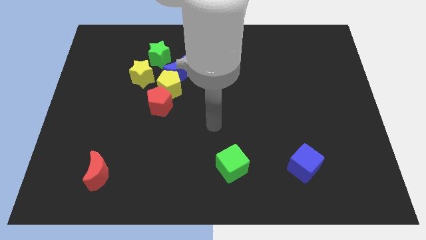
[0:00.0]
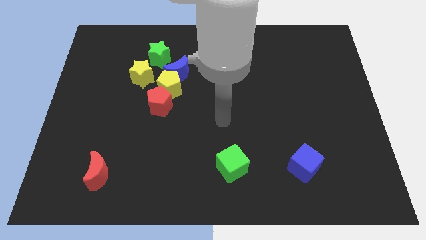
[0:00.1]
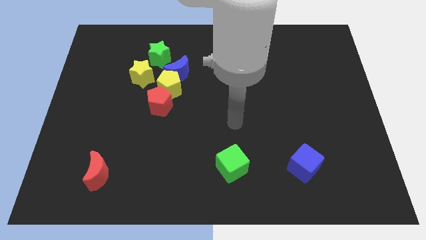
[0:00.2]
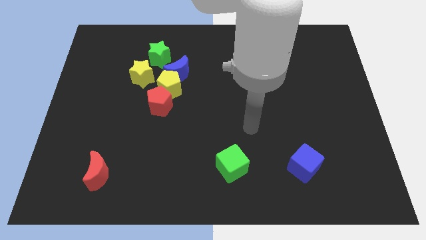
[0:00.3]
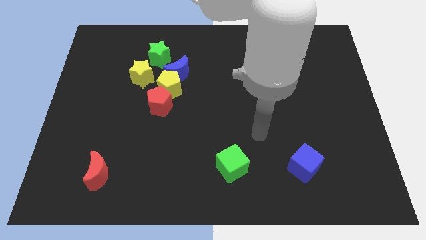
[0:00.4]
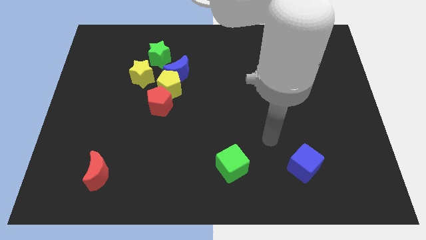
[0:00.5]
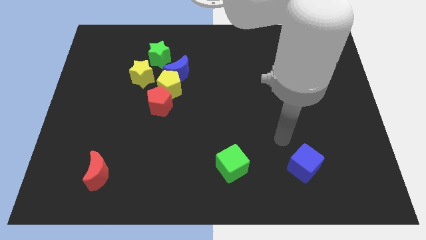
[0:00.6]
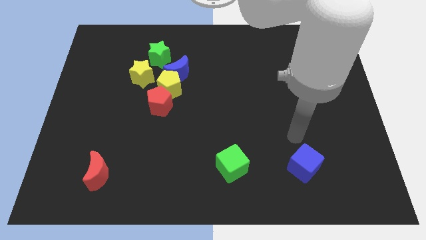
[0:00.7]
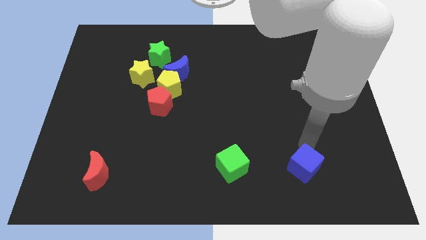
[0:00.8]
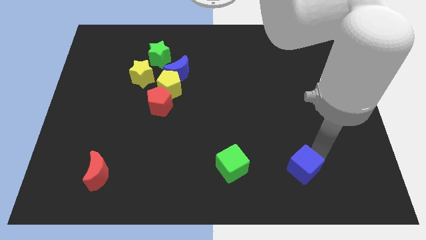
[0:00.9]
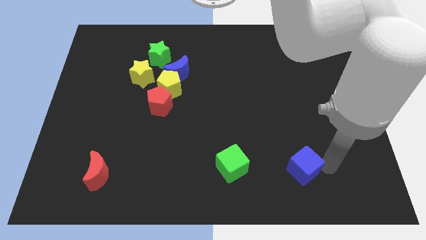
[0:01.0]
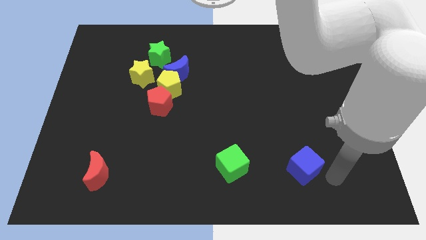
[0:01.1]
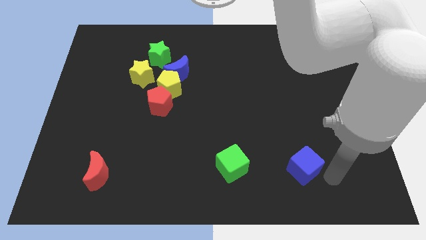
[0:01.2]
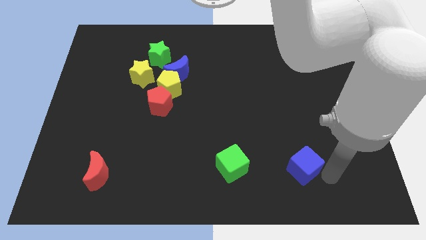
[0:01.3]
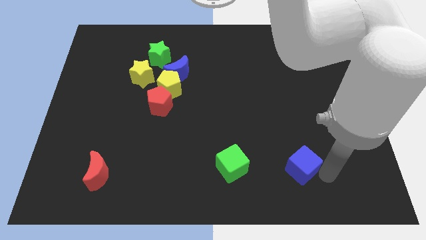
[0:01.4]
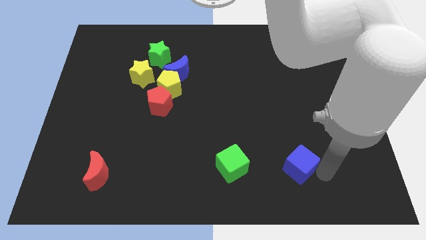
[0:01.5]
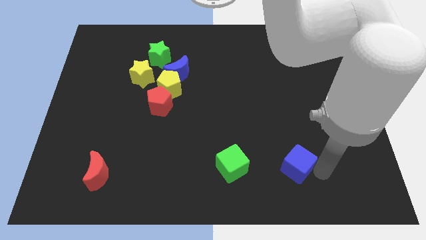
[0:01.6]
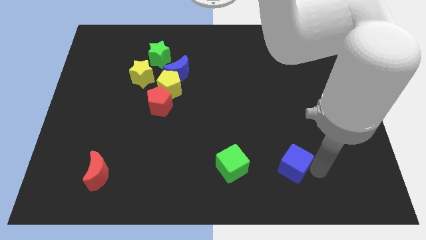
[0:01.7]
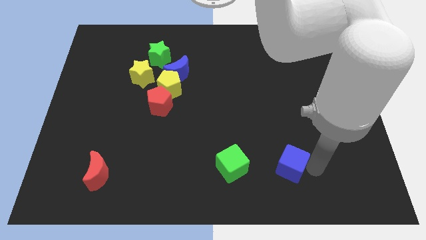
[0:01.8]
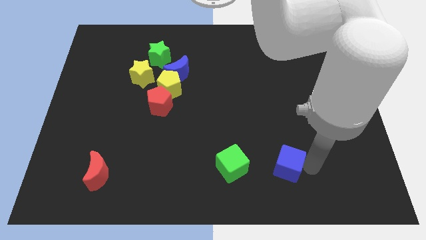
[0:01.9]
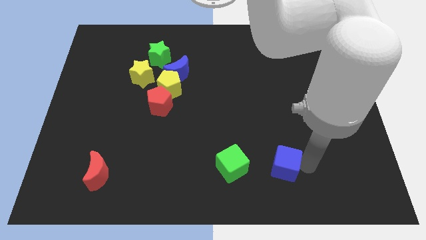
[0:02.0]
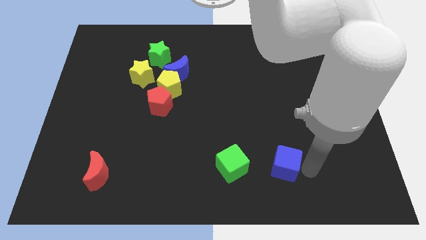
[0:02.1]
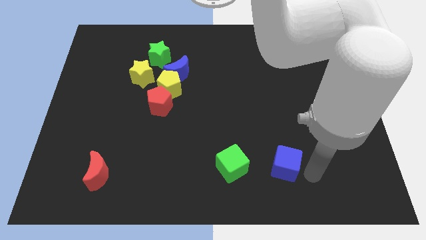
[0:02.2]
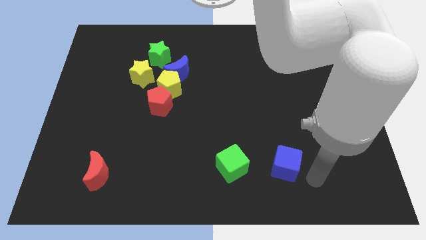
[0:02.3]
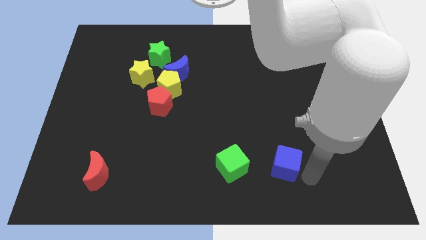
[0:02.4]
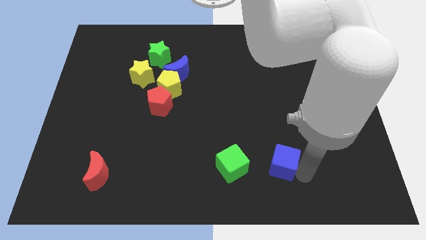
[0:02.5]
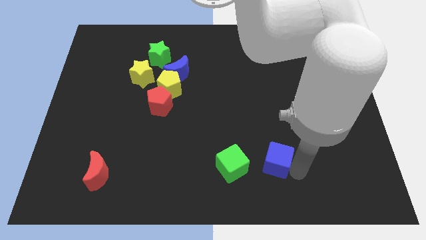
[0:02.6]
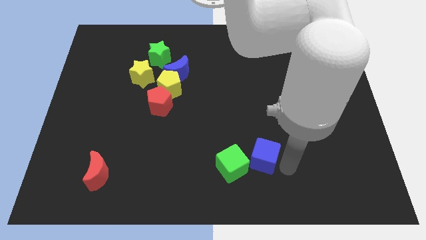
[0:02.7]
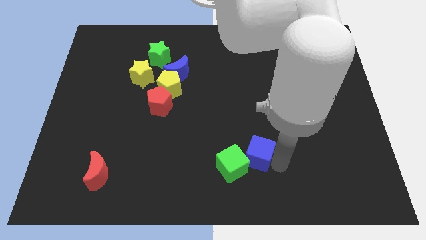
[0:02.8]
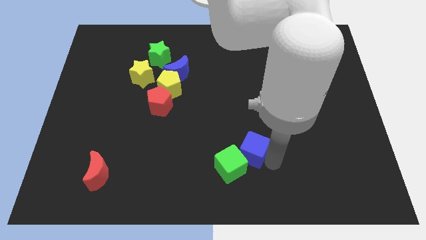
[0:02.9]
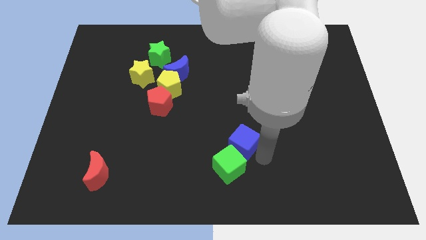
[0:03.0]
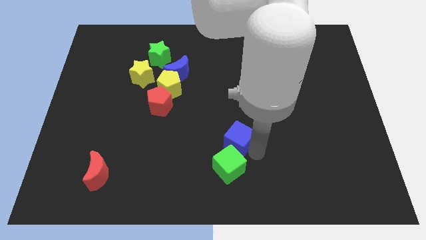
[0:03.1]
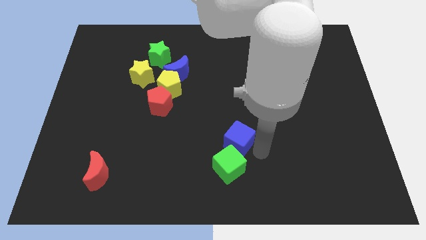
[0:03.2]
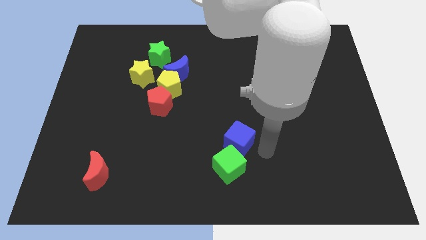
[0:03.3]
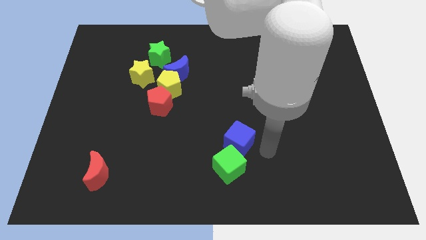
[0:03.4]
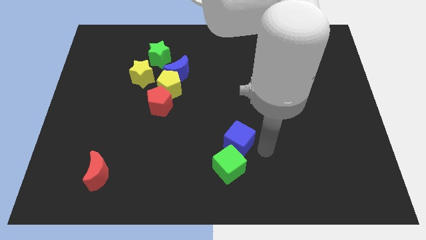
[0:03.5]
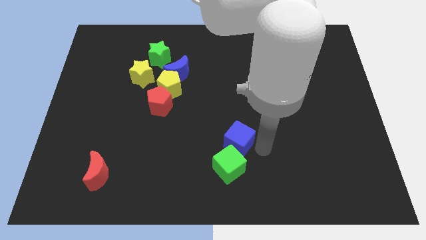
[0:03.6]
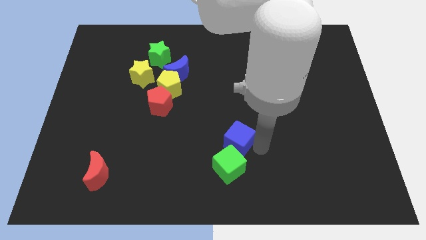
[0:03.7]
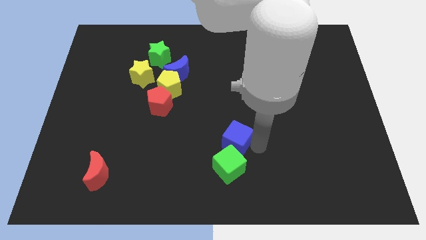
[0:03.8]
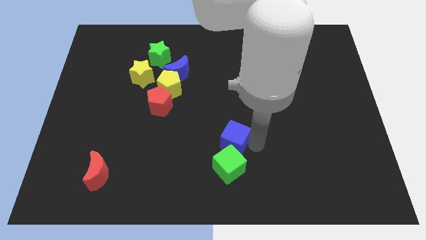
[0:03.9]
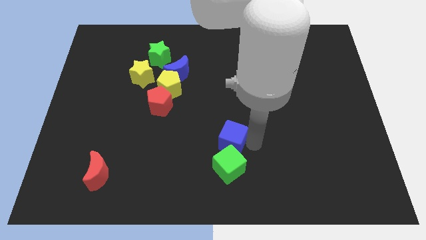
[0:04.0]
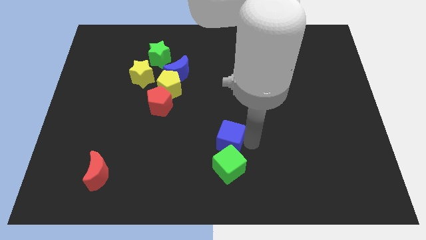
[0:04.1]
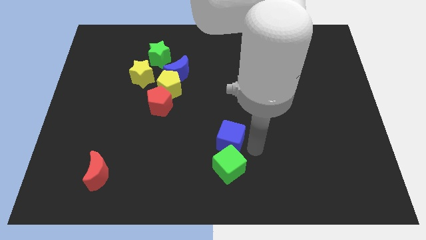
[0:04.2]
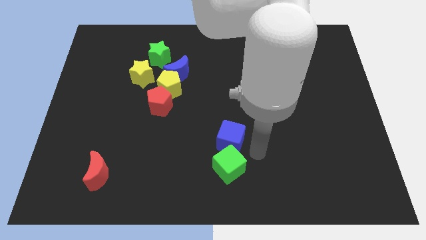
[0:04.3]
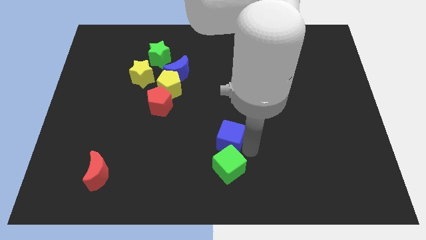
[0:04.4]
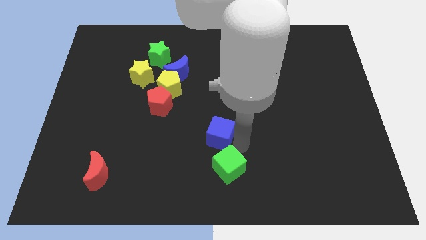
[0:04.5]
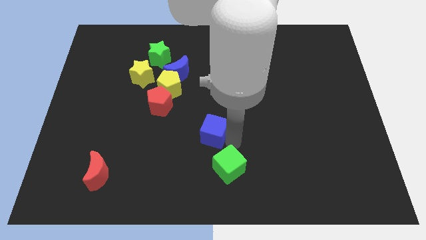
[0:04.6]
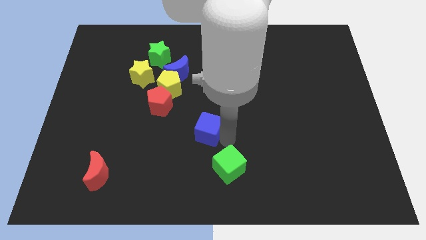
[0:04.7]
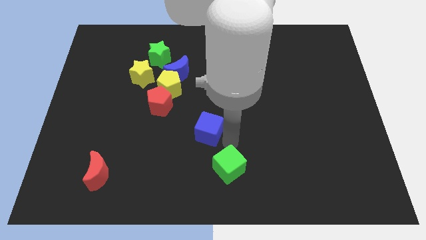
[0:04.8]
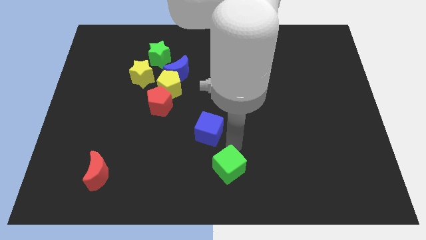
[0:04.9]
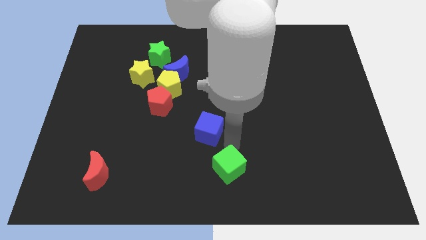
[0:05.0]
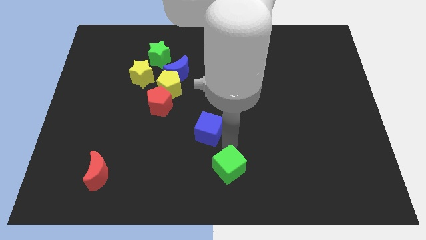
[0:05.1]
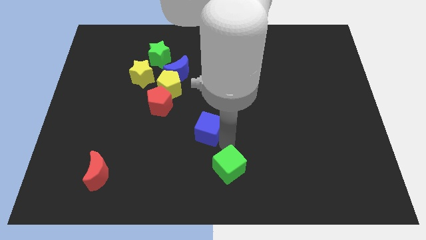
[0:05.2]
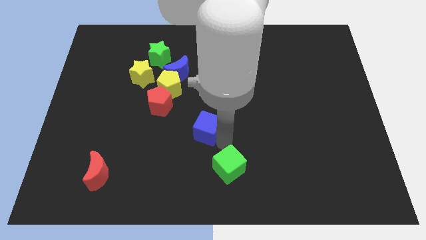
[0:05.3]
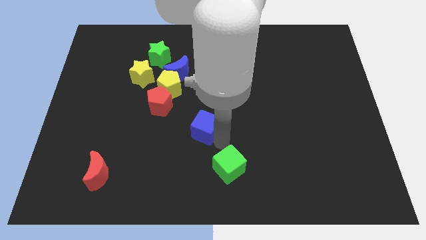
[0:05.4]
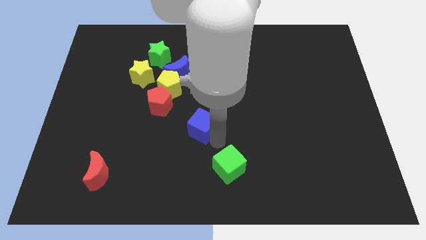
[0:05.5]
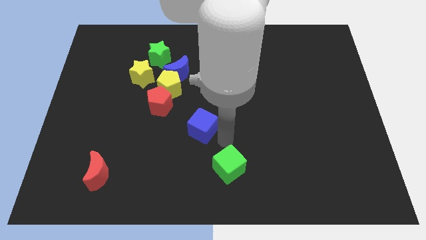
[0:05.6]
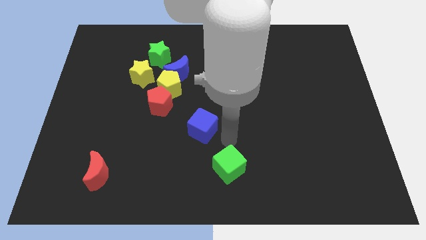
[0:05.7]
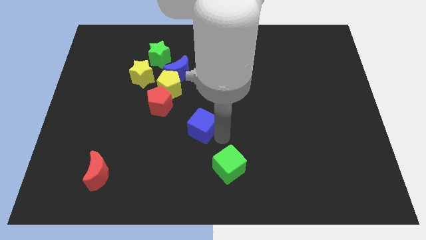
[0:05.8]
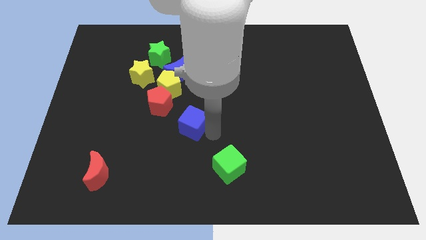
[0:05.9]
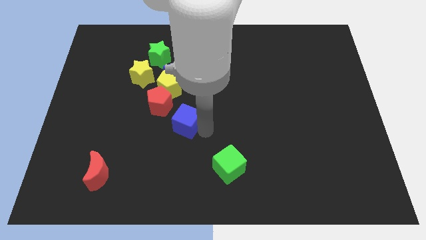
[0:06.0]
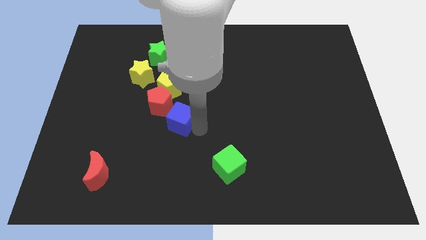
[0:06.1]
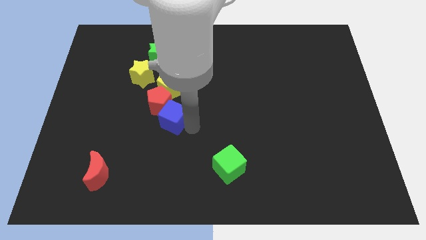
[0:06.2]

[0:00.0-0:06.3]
slide the blue cube to the red pentagon

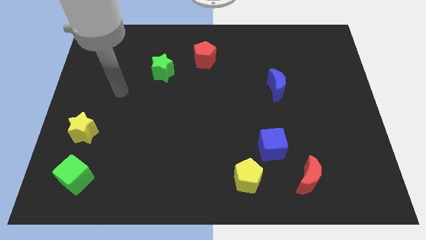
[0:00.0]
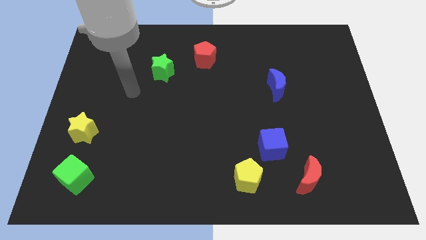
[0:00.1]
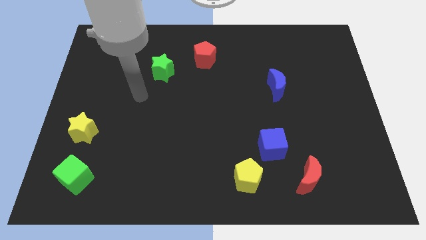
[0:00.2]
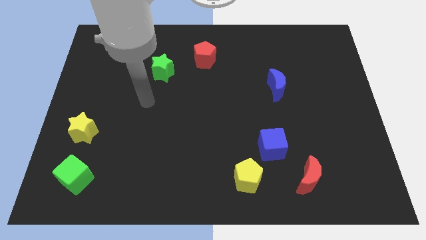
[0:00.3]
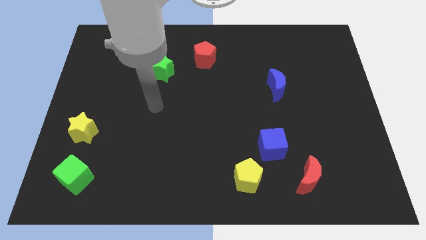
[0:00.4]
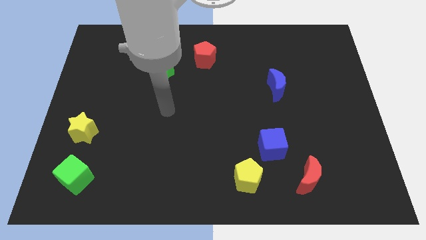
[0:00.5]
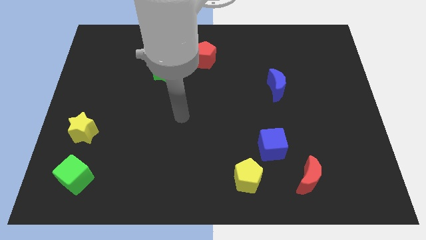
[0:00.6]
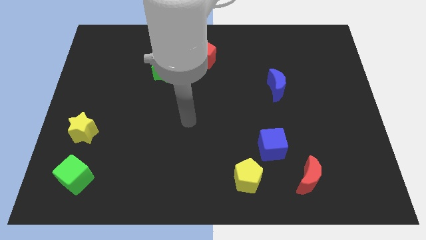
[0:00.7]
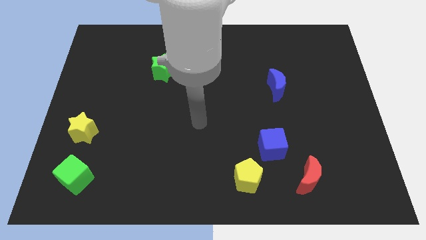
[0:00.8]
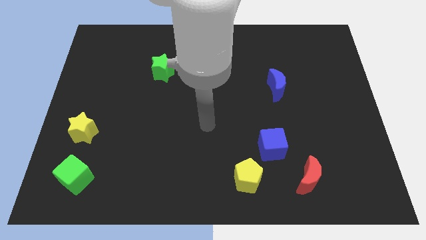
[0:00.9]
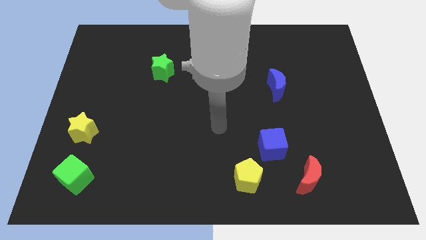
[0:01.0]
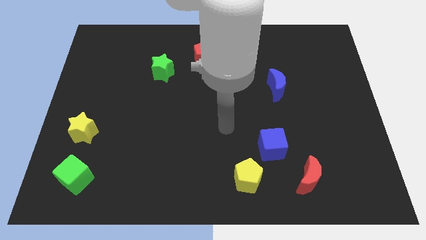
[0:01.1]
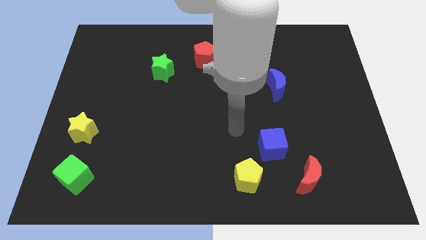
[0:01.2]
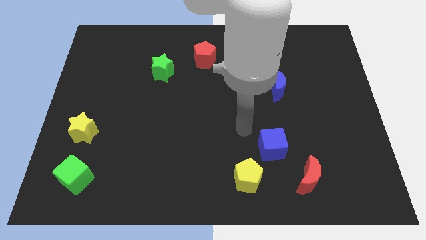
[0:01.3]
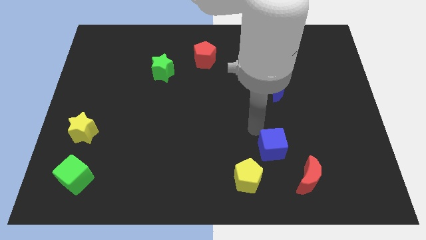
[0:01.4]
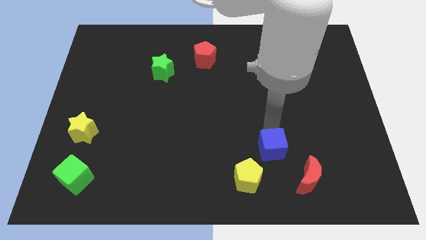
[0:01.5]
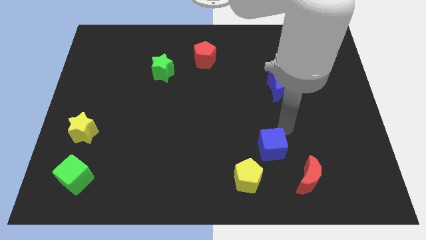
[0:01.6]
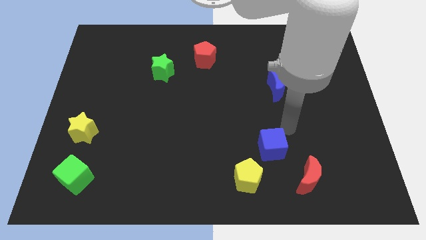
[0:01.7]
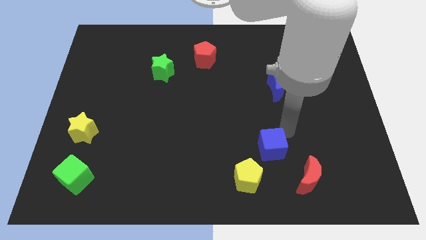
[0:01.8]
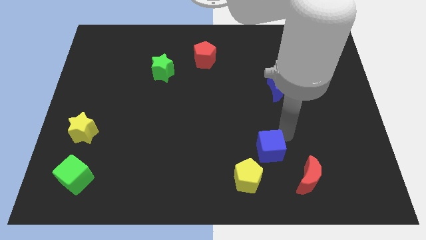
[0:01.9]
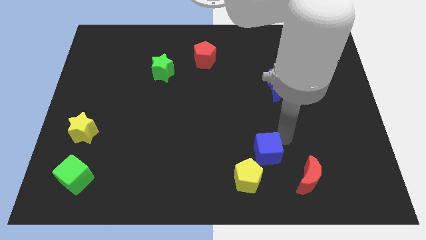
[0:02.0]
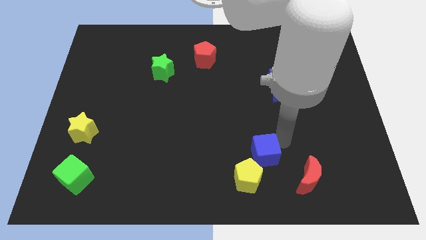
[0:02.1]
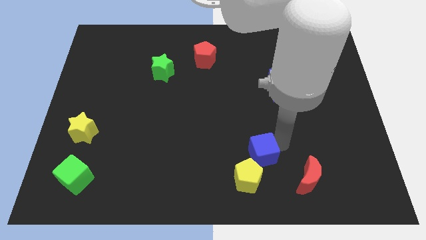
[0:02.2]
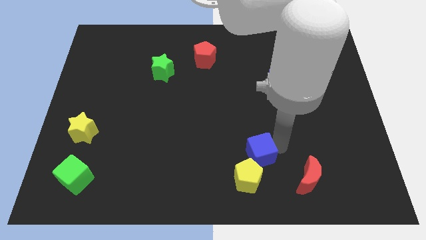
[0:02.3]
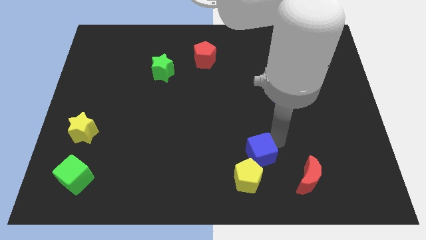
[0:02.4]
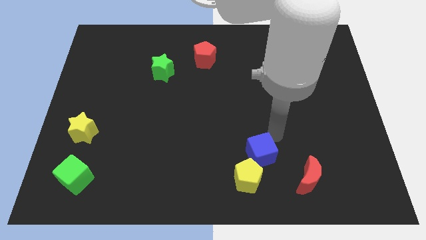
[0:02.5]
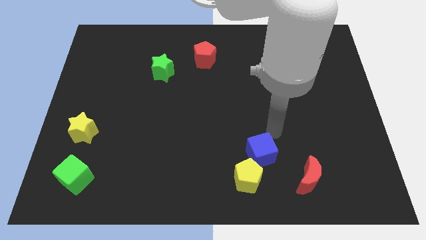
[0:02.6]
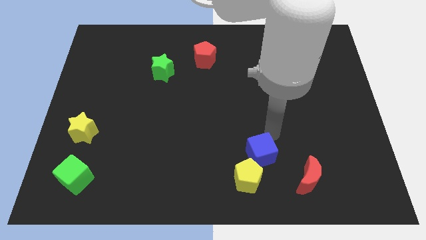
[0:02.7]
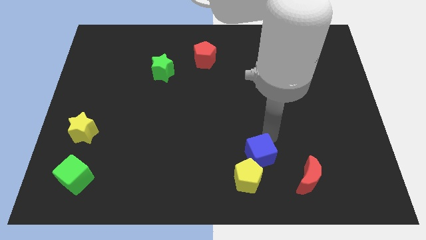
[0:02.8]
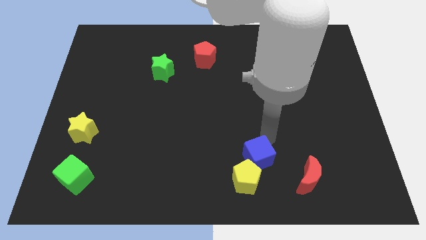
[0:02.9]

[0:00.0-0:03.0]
put the blue cube towards the yellow pentagon
